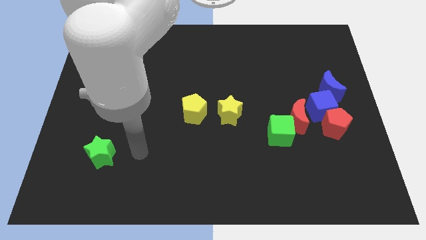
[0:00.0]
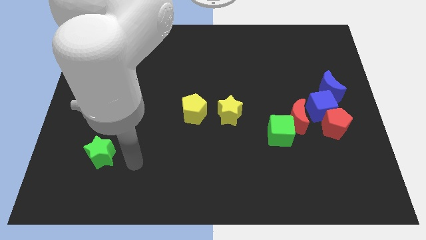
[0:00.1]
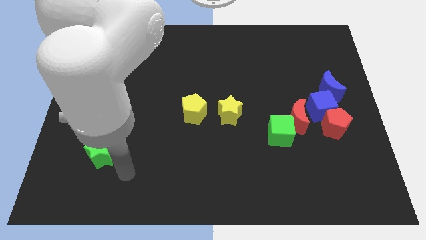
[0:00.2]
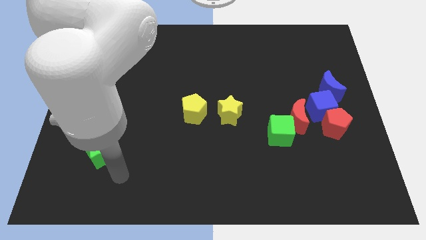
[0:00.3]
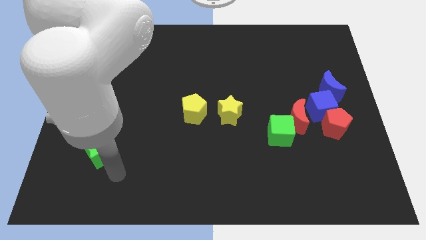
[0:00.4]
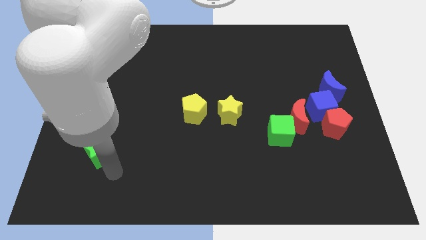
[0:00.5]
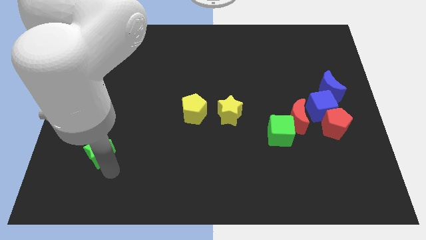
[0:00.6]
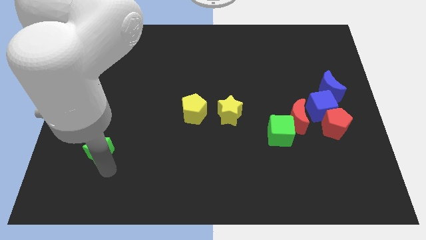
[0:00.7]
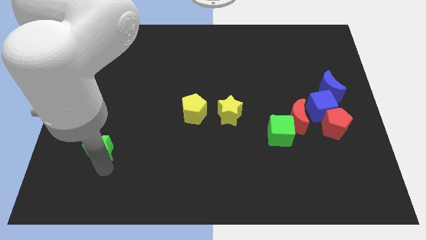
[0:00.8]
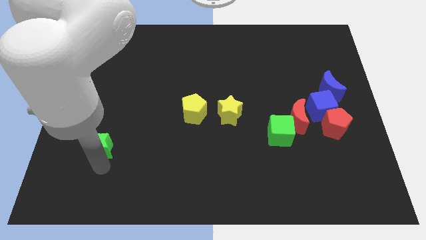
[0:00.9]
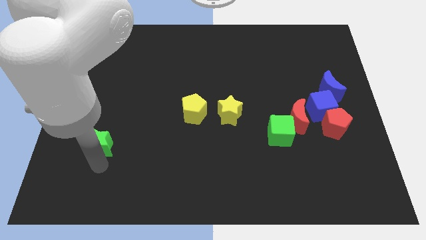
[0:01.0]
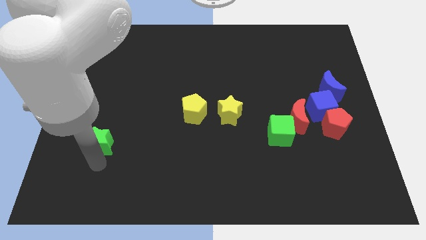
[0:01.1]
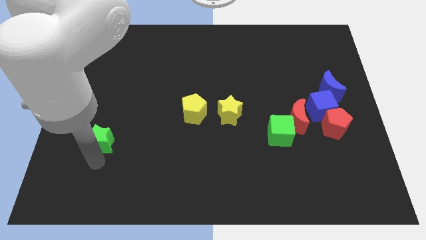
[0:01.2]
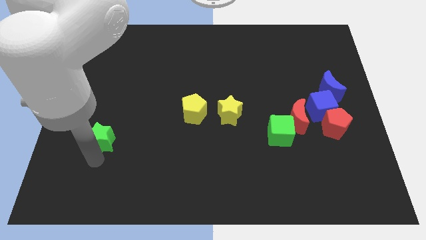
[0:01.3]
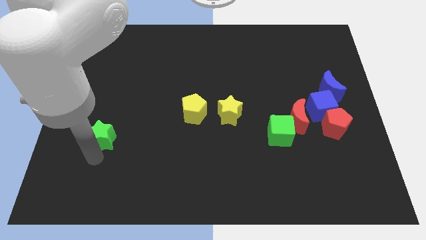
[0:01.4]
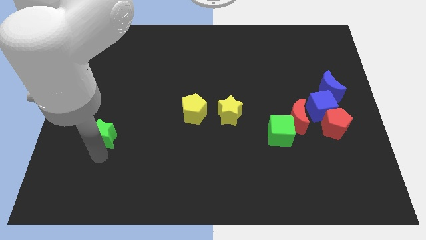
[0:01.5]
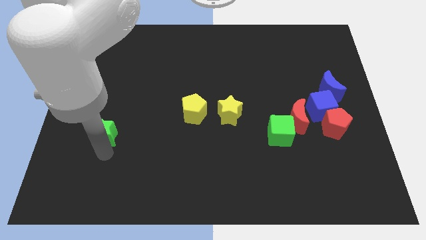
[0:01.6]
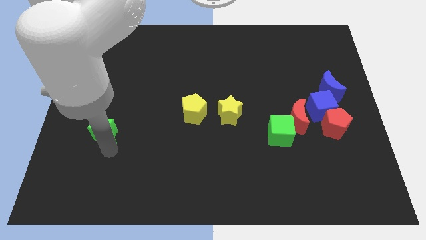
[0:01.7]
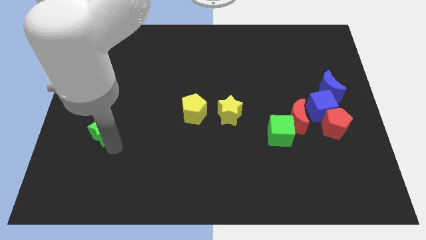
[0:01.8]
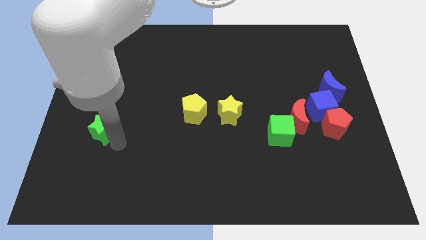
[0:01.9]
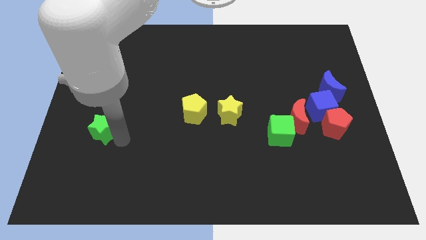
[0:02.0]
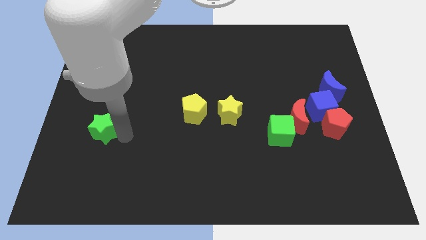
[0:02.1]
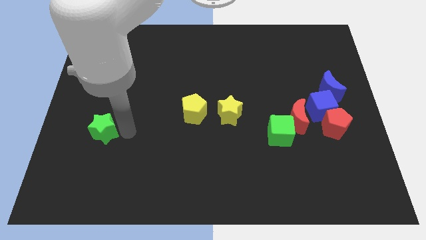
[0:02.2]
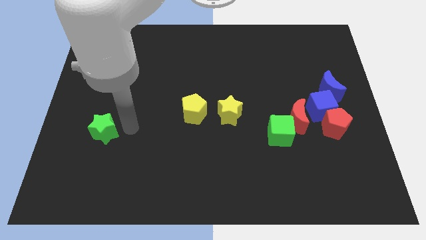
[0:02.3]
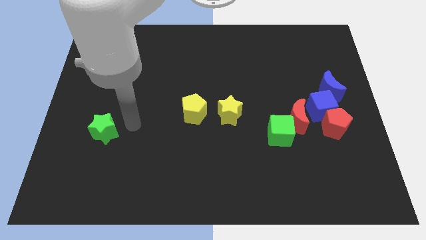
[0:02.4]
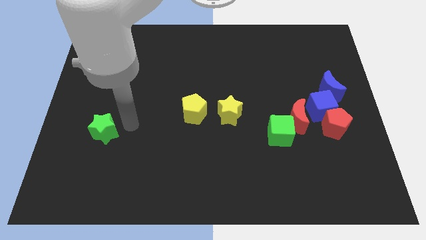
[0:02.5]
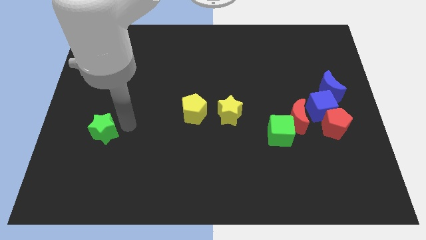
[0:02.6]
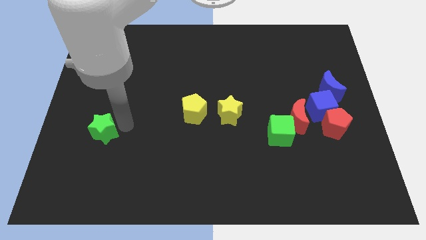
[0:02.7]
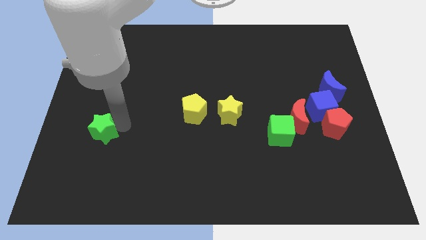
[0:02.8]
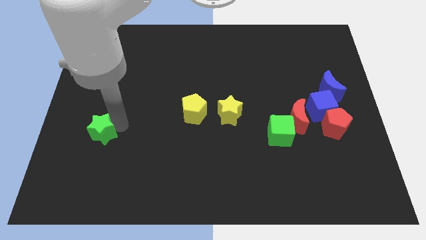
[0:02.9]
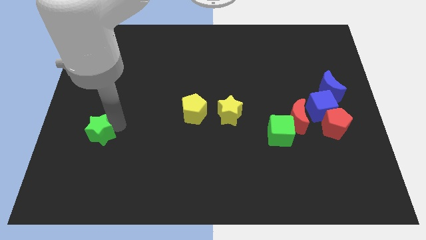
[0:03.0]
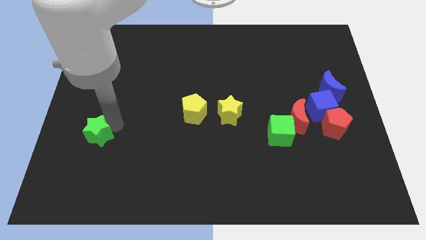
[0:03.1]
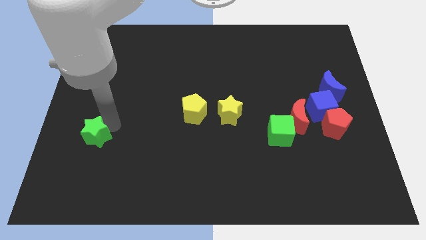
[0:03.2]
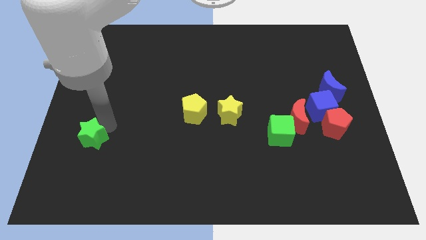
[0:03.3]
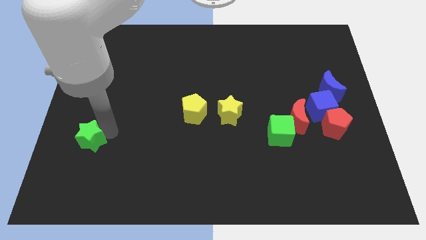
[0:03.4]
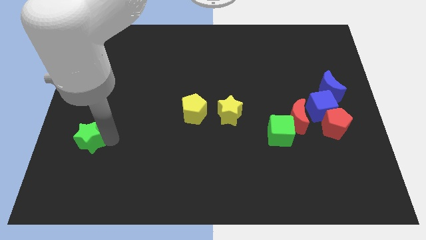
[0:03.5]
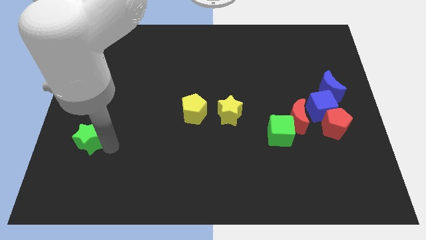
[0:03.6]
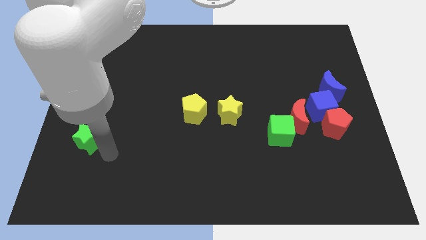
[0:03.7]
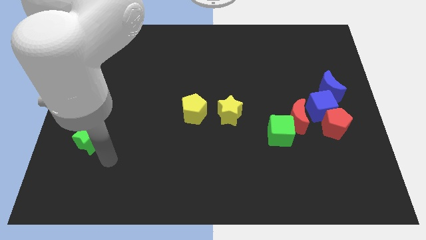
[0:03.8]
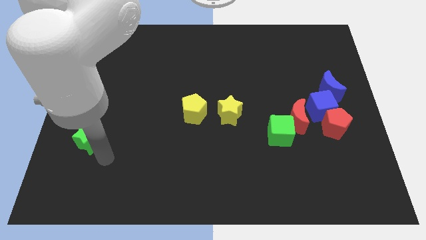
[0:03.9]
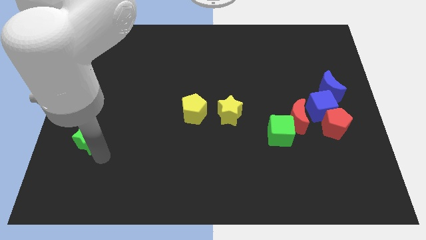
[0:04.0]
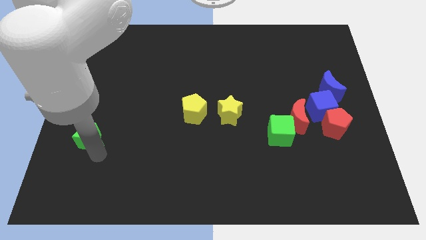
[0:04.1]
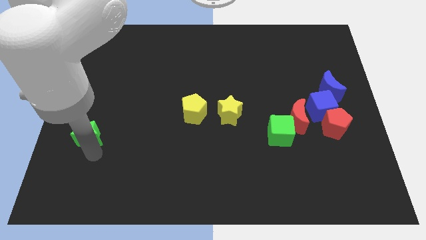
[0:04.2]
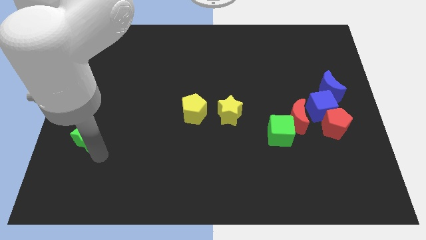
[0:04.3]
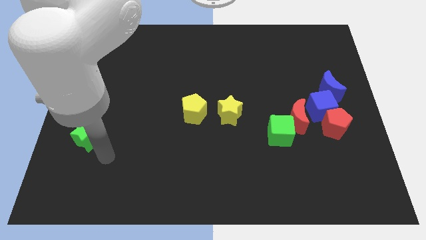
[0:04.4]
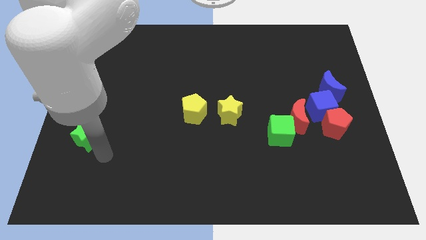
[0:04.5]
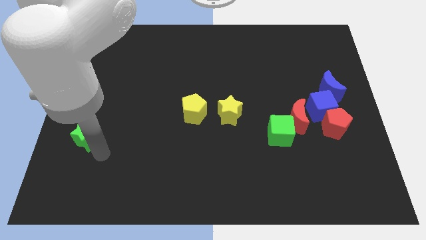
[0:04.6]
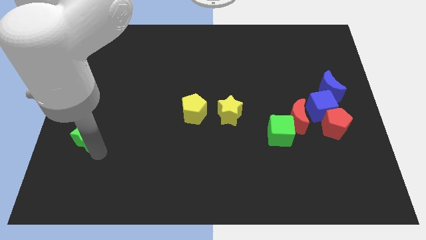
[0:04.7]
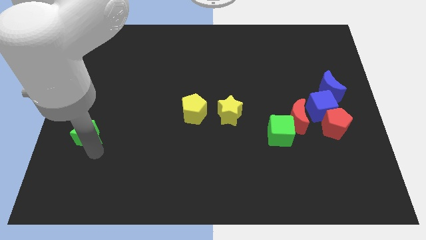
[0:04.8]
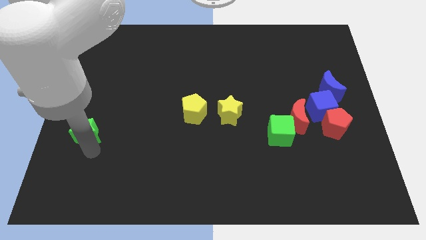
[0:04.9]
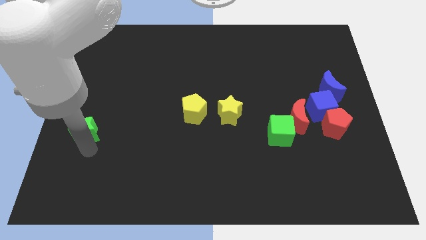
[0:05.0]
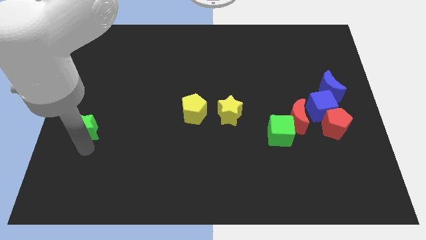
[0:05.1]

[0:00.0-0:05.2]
put the green star to the center left

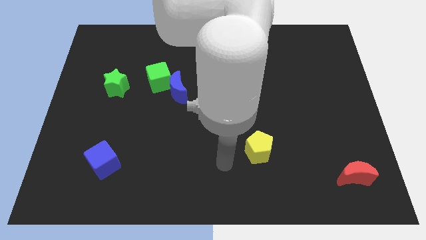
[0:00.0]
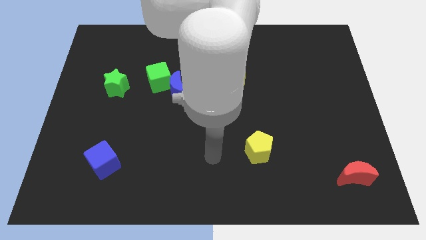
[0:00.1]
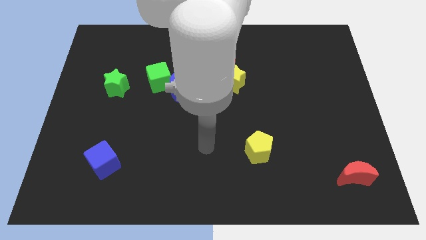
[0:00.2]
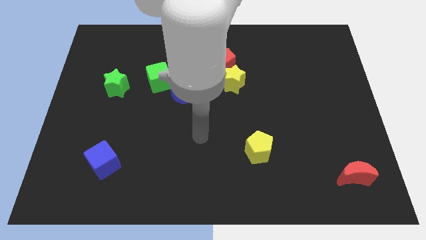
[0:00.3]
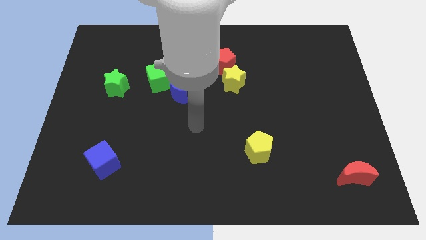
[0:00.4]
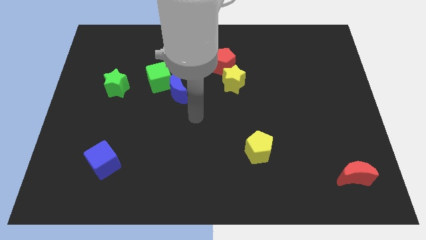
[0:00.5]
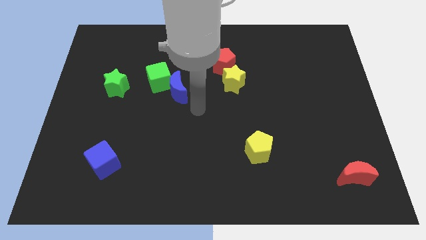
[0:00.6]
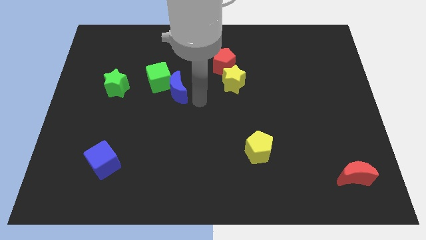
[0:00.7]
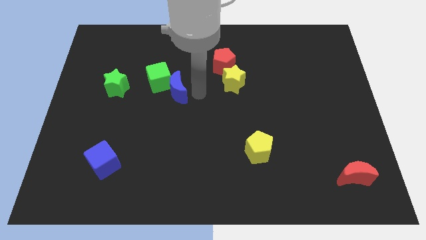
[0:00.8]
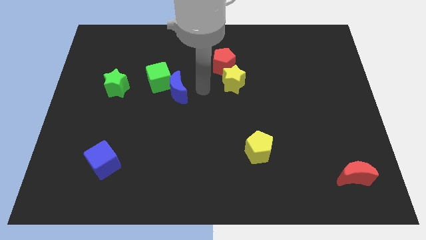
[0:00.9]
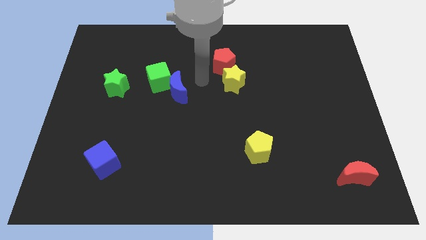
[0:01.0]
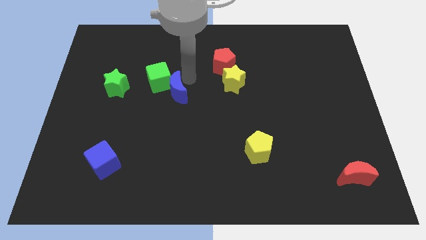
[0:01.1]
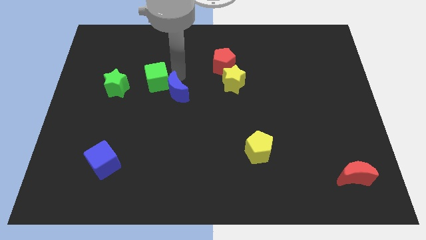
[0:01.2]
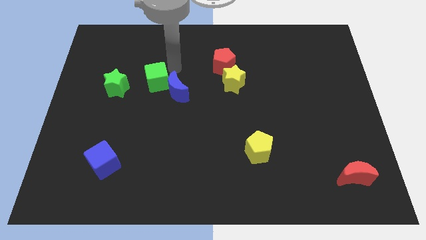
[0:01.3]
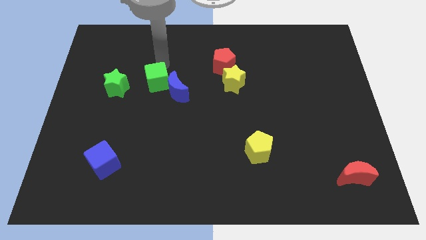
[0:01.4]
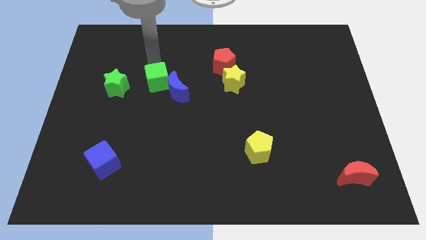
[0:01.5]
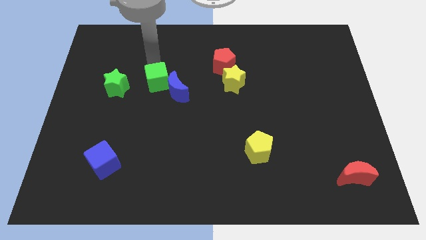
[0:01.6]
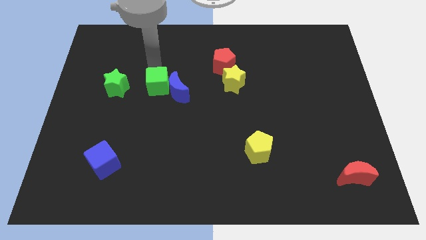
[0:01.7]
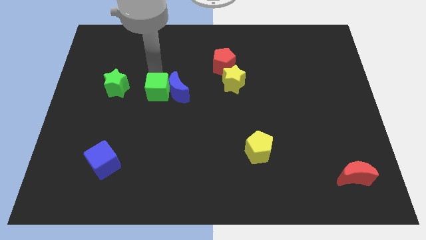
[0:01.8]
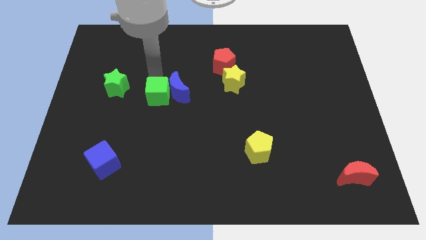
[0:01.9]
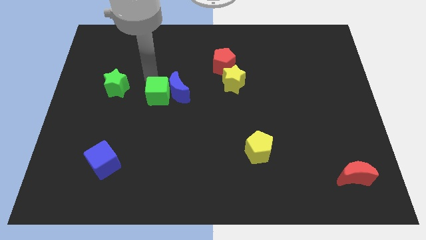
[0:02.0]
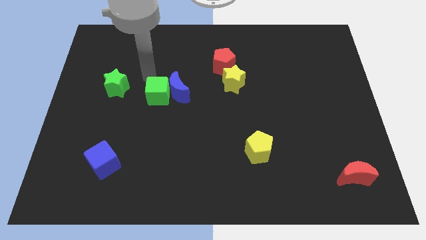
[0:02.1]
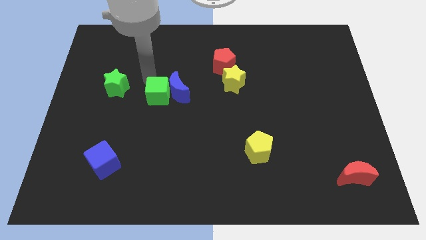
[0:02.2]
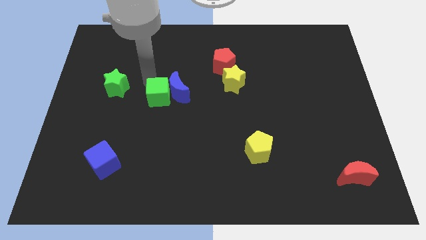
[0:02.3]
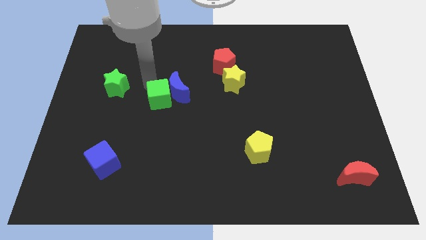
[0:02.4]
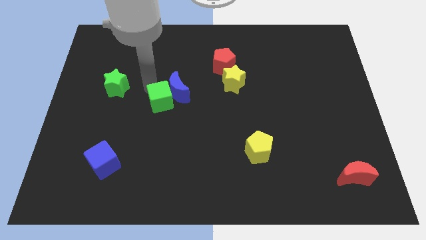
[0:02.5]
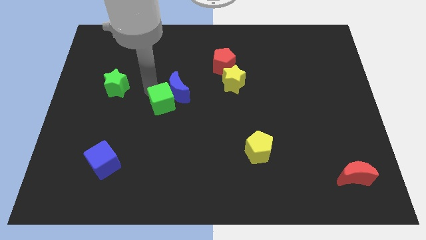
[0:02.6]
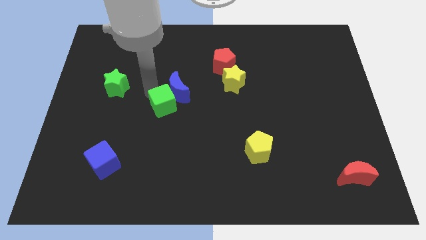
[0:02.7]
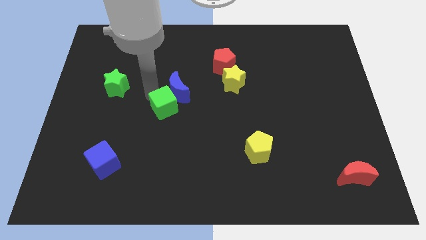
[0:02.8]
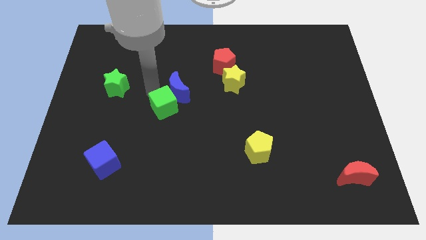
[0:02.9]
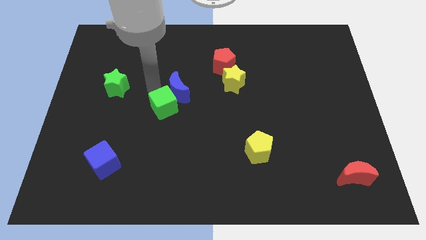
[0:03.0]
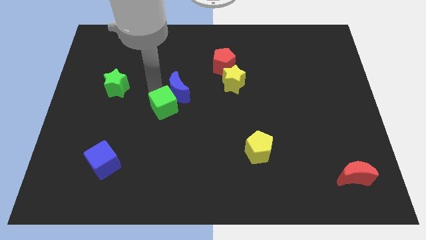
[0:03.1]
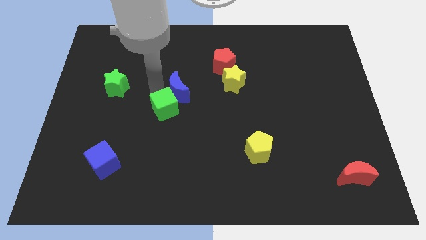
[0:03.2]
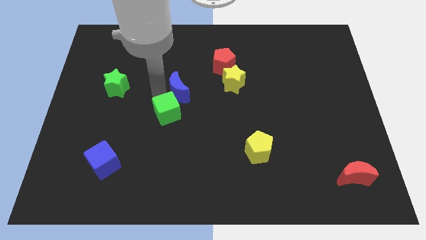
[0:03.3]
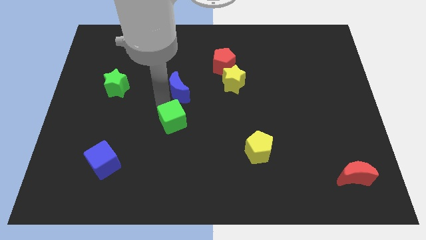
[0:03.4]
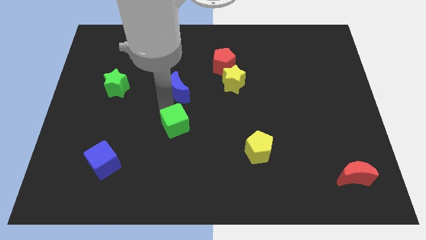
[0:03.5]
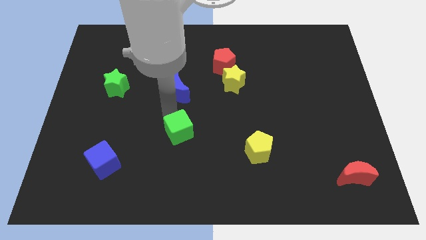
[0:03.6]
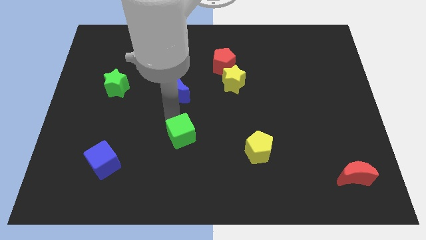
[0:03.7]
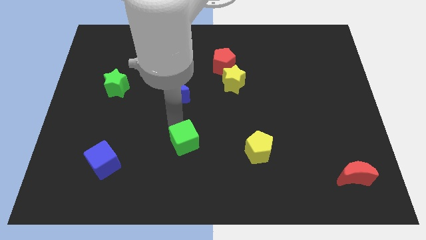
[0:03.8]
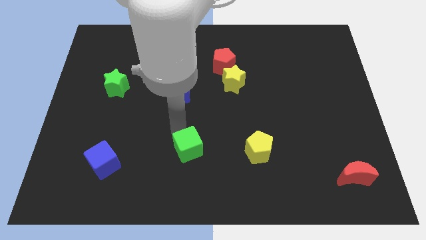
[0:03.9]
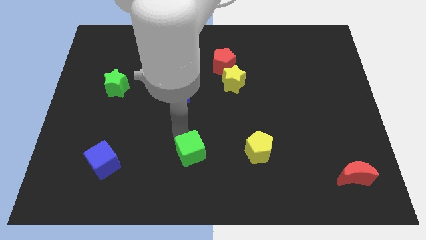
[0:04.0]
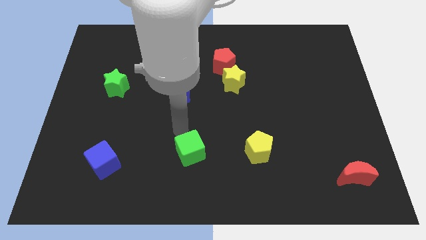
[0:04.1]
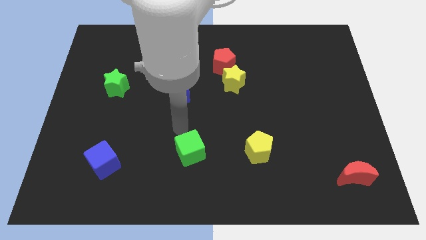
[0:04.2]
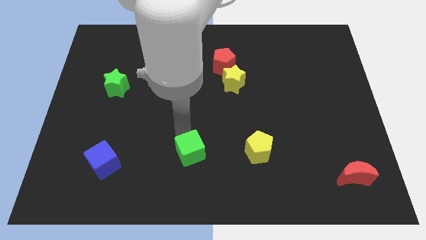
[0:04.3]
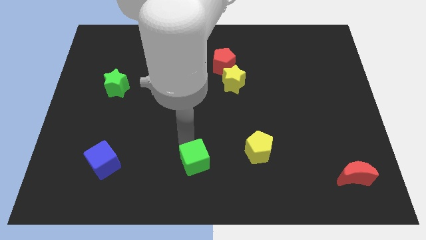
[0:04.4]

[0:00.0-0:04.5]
move the green cube to the bottom
